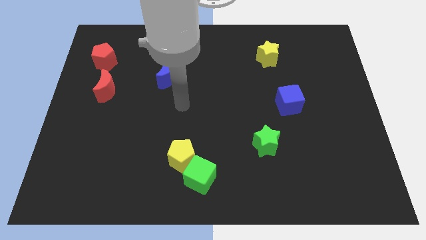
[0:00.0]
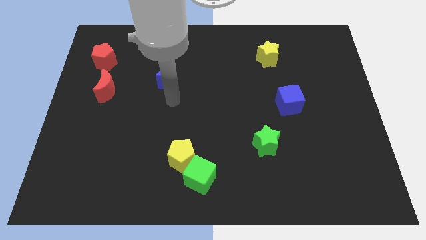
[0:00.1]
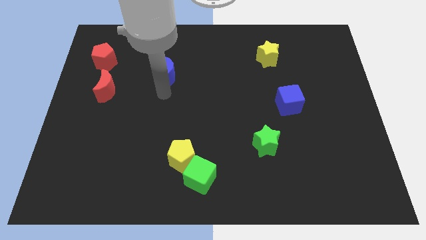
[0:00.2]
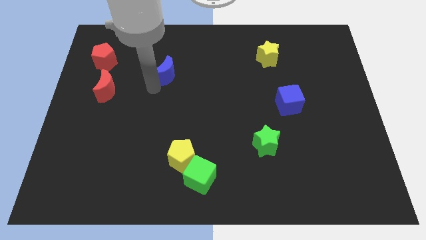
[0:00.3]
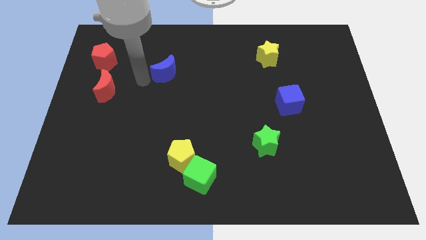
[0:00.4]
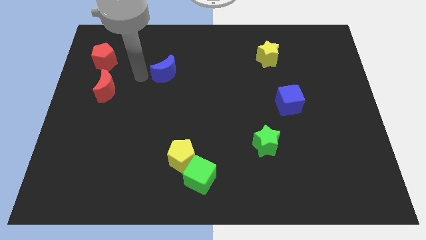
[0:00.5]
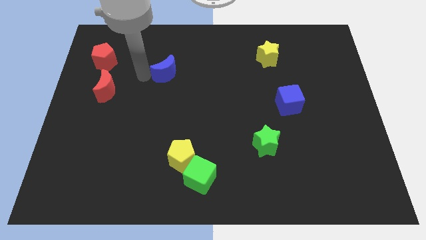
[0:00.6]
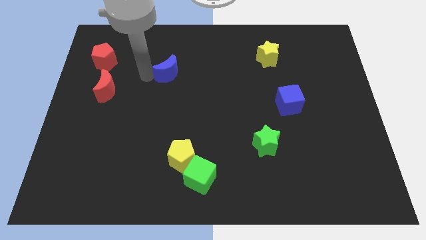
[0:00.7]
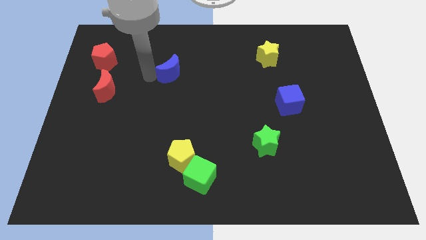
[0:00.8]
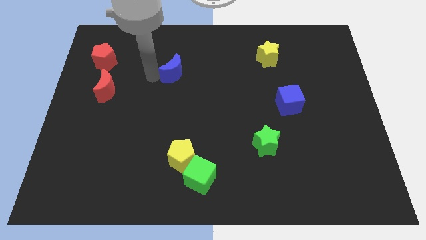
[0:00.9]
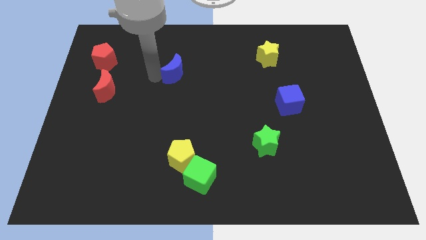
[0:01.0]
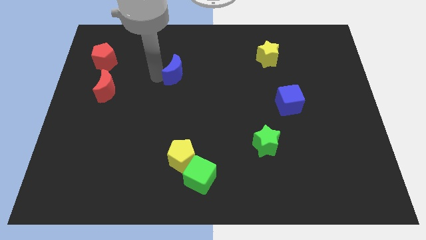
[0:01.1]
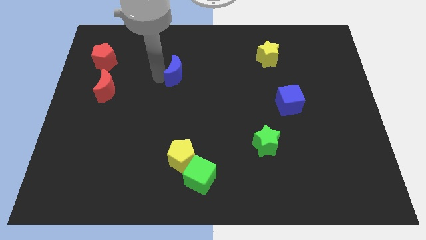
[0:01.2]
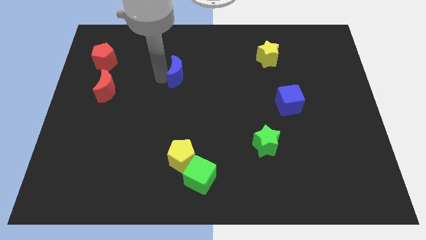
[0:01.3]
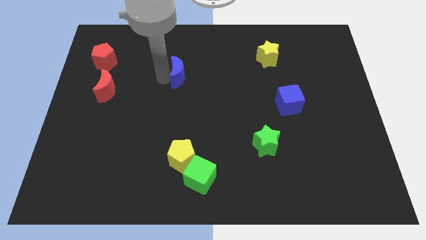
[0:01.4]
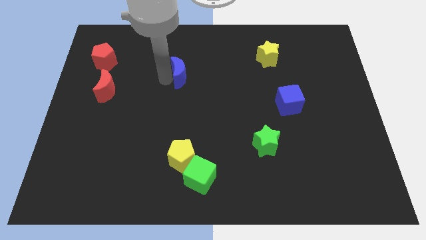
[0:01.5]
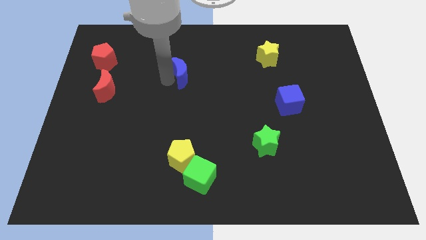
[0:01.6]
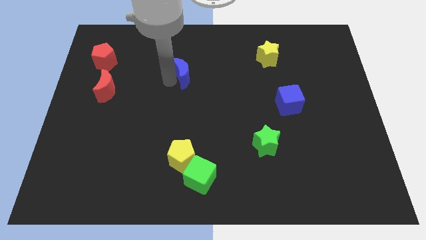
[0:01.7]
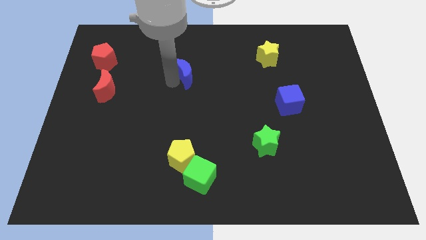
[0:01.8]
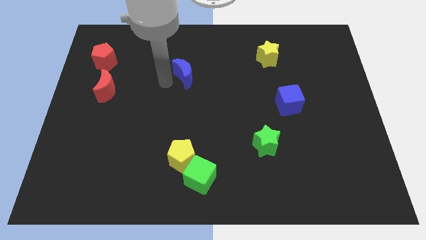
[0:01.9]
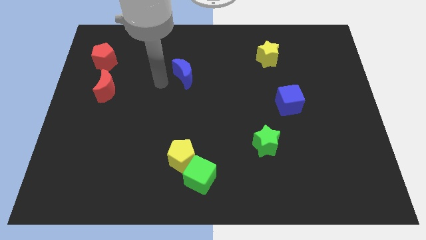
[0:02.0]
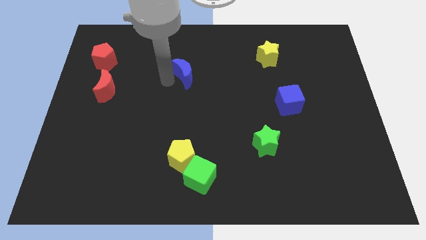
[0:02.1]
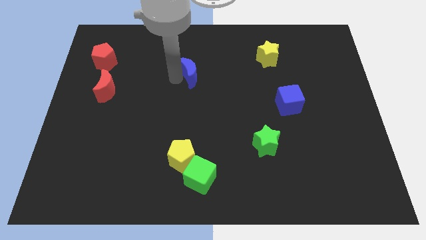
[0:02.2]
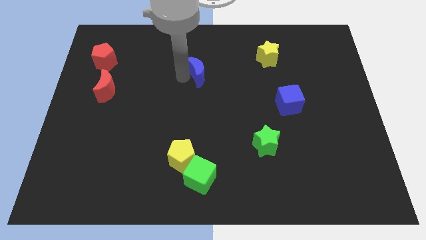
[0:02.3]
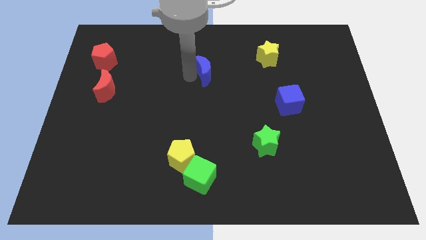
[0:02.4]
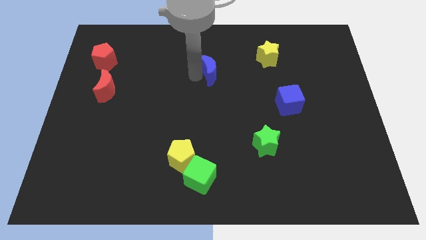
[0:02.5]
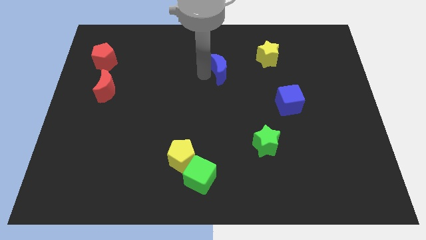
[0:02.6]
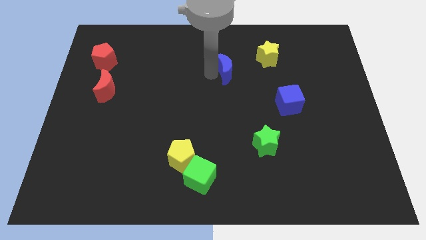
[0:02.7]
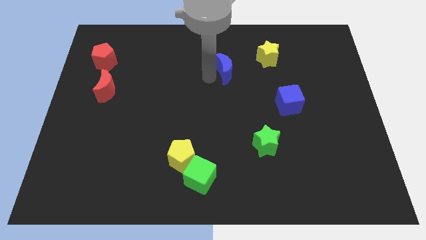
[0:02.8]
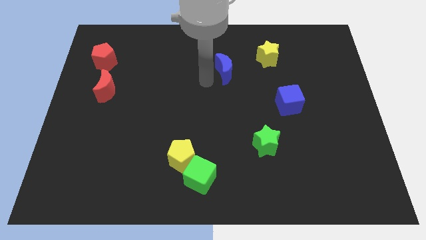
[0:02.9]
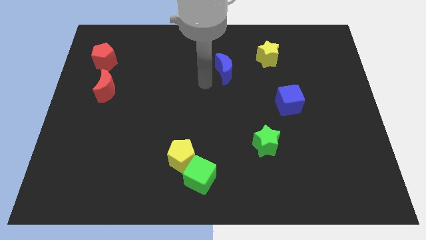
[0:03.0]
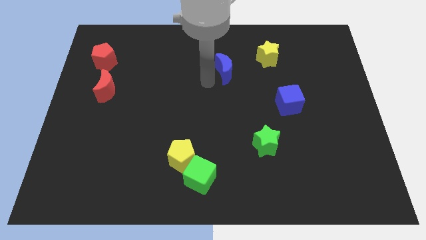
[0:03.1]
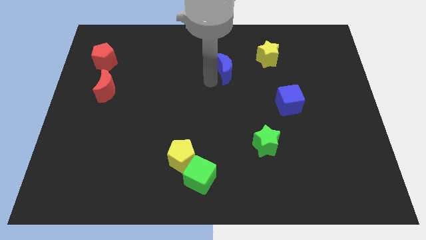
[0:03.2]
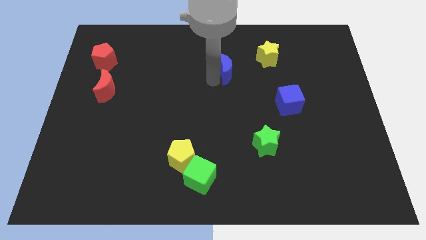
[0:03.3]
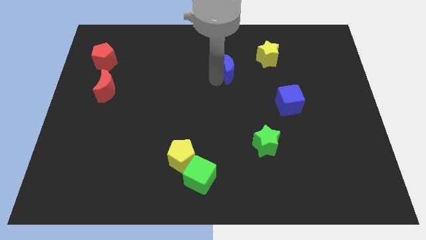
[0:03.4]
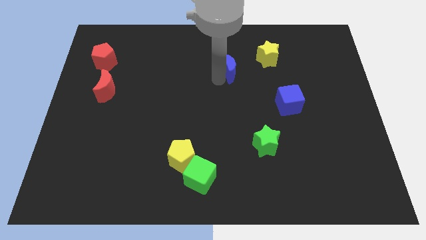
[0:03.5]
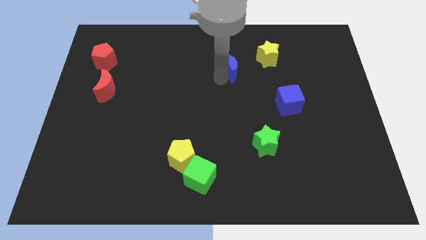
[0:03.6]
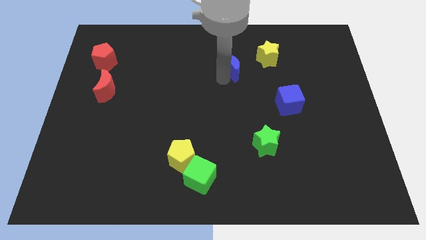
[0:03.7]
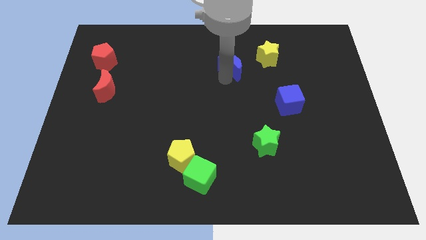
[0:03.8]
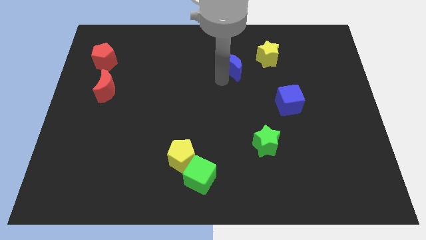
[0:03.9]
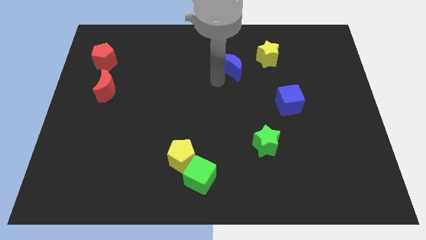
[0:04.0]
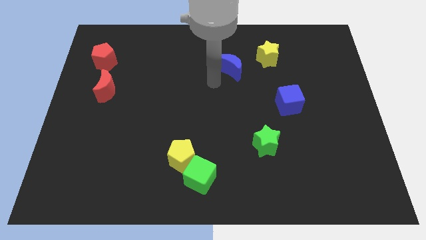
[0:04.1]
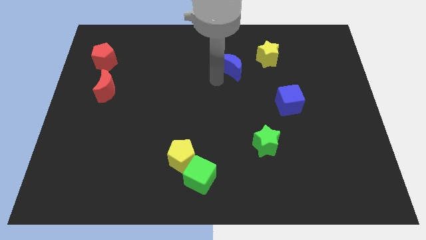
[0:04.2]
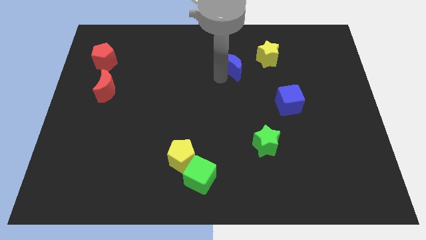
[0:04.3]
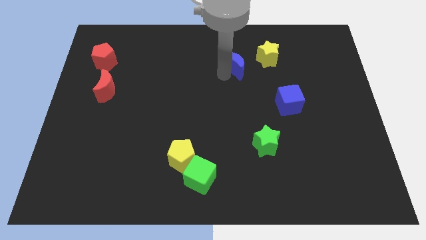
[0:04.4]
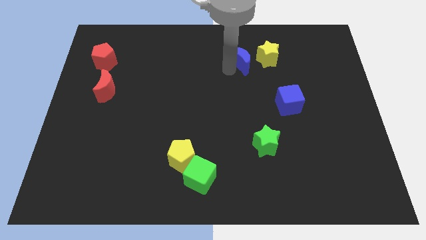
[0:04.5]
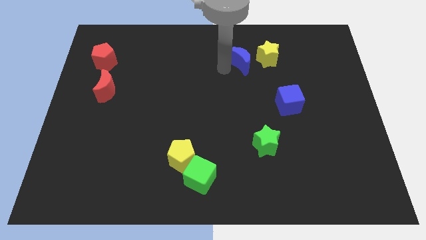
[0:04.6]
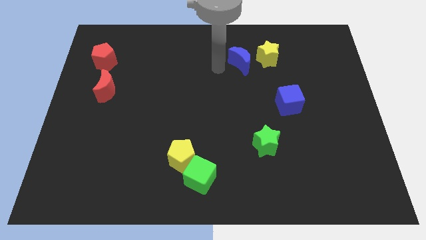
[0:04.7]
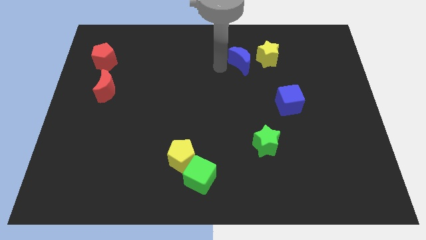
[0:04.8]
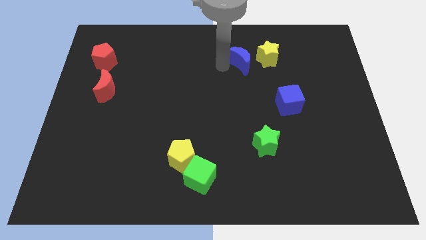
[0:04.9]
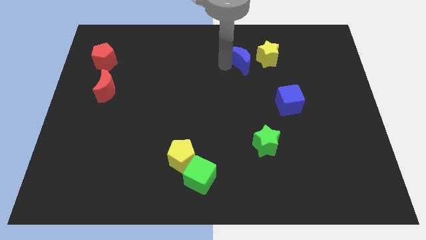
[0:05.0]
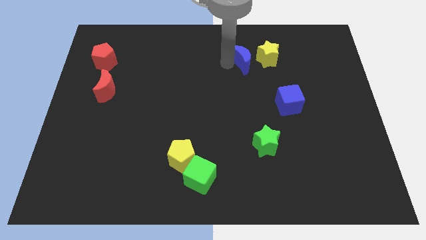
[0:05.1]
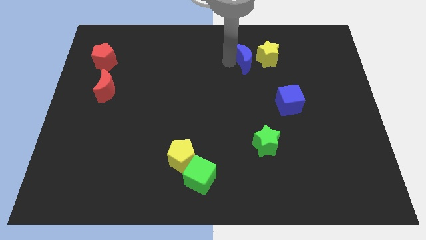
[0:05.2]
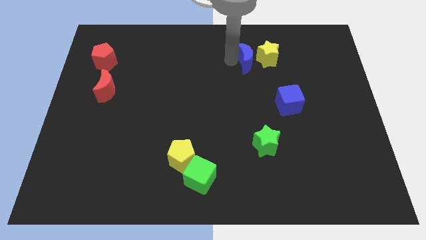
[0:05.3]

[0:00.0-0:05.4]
slide the blue moon close to the yellow star

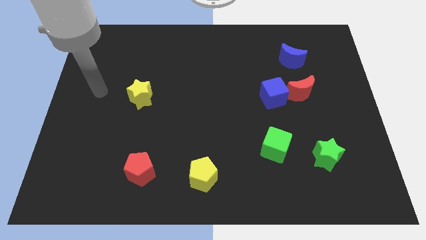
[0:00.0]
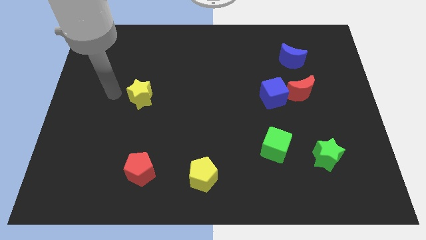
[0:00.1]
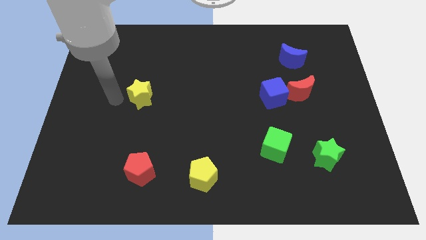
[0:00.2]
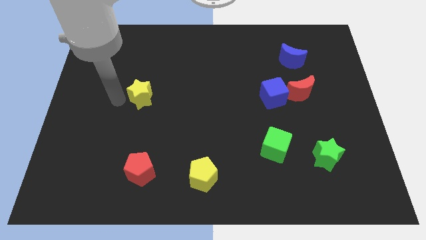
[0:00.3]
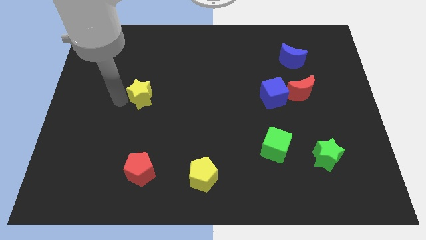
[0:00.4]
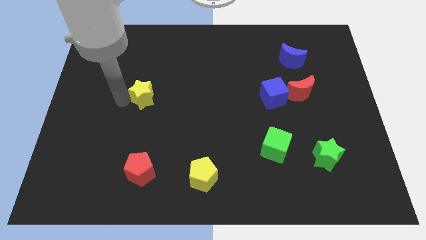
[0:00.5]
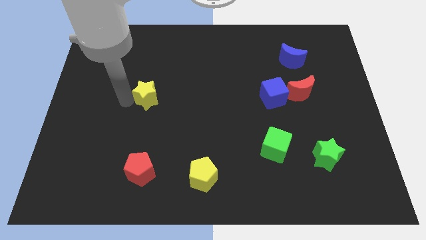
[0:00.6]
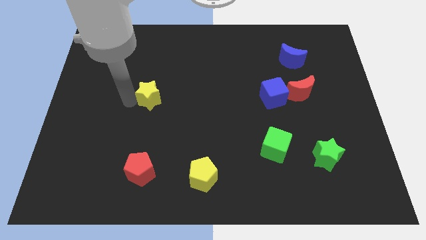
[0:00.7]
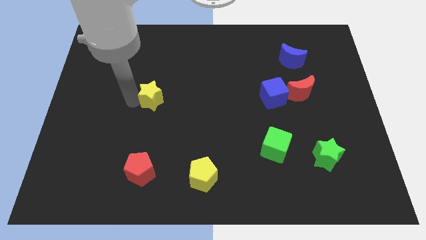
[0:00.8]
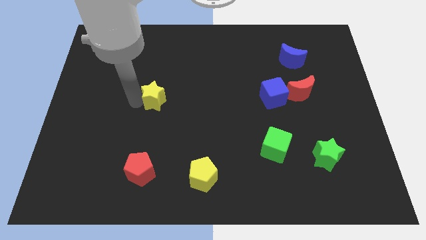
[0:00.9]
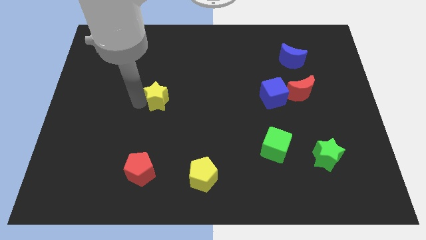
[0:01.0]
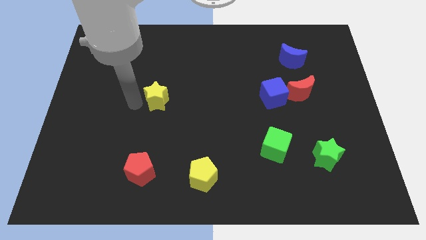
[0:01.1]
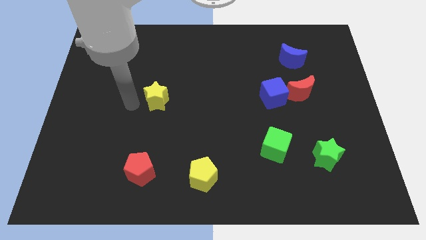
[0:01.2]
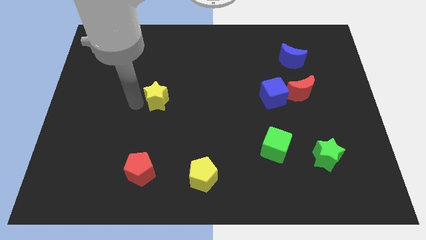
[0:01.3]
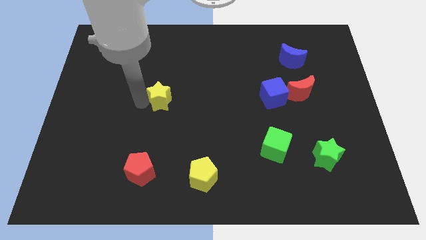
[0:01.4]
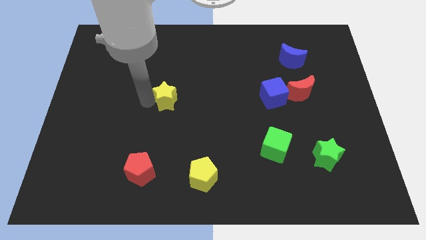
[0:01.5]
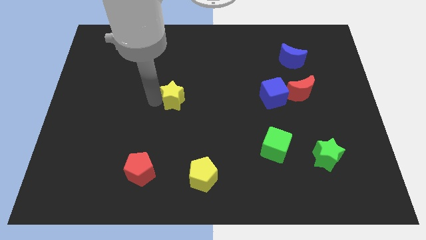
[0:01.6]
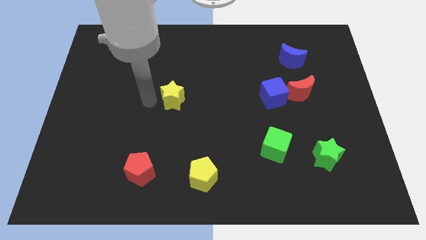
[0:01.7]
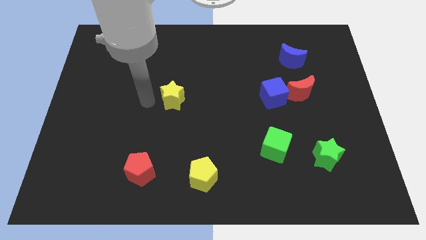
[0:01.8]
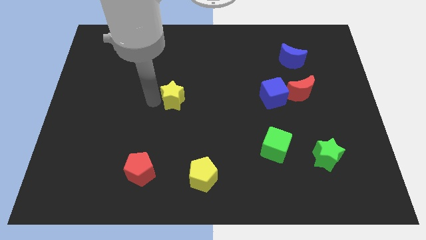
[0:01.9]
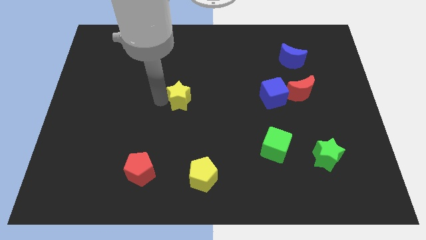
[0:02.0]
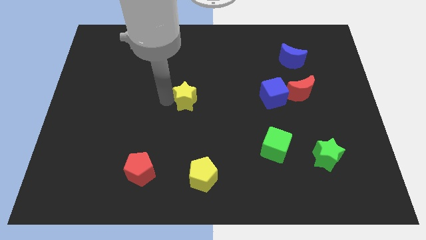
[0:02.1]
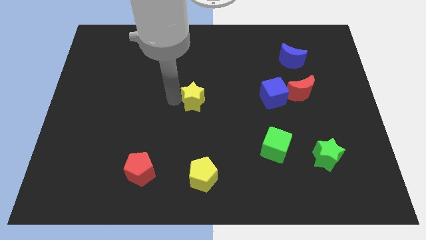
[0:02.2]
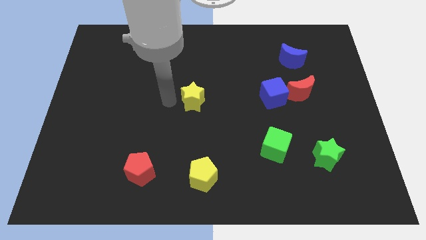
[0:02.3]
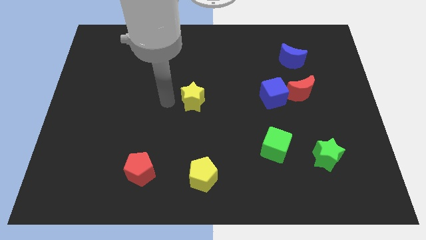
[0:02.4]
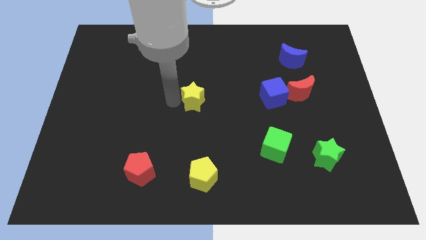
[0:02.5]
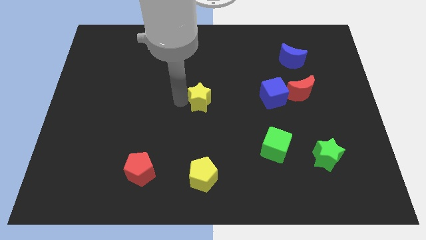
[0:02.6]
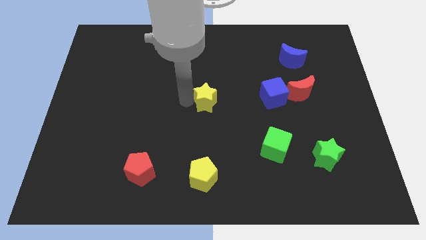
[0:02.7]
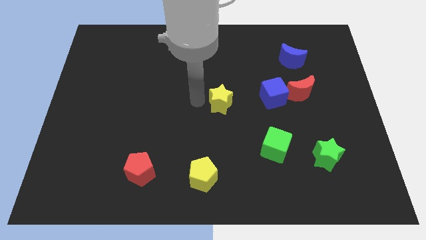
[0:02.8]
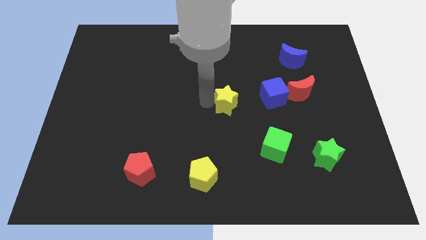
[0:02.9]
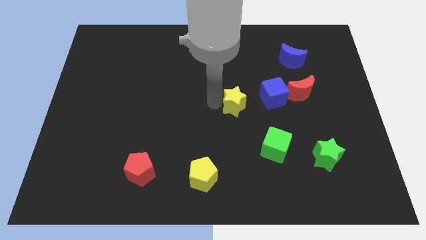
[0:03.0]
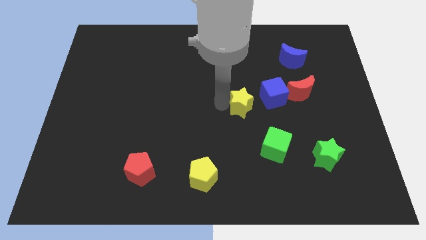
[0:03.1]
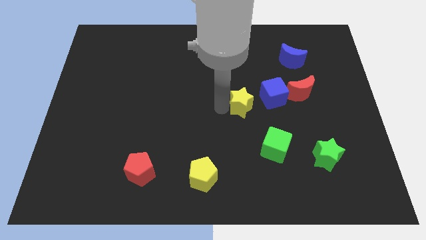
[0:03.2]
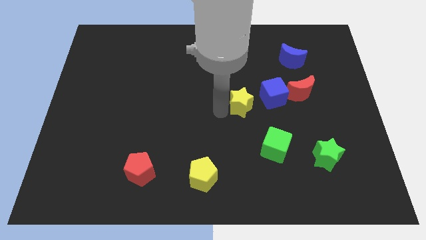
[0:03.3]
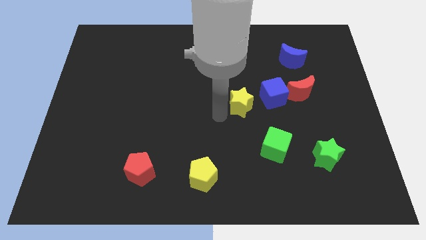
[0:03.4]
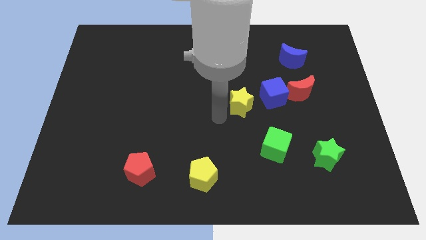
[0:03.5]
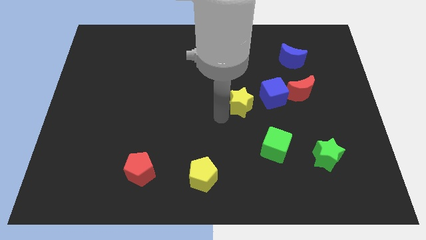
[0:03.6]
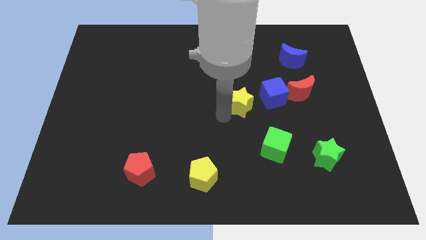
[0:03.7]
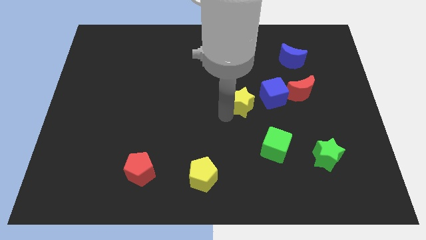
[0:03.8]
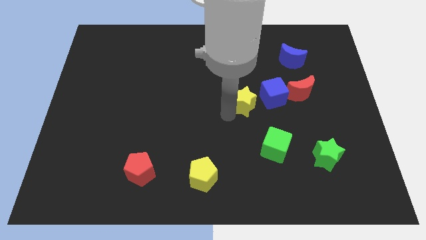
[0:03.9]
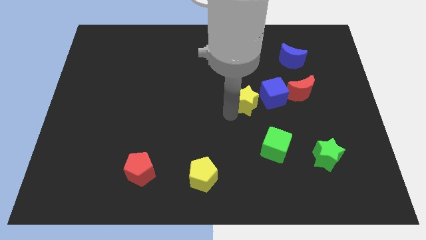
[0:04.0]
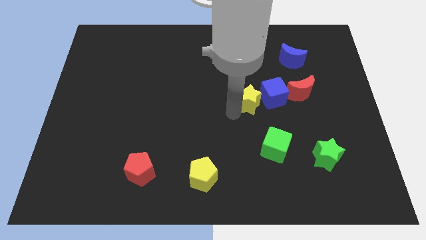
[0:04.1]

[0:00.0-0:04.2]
push the yellow star towards the blue cube
